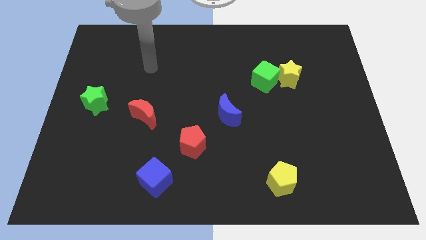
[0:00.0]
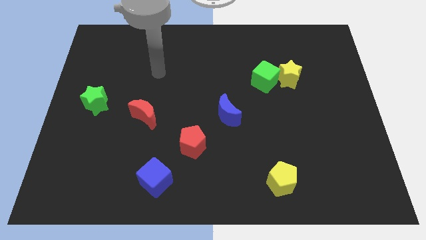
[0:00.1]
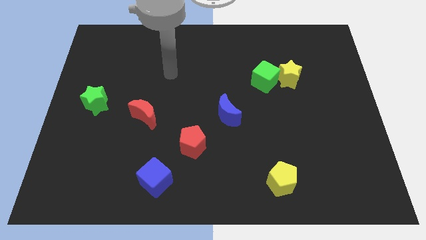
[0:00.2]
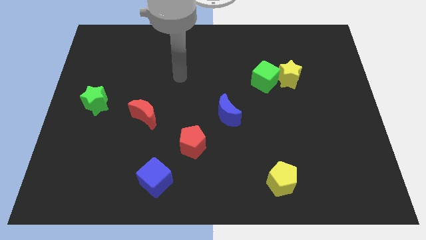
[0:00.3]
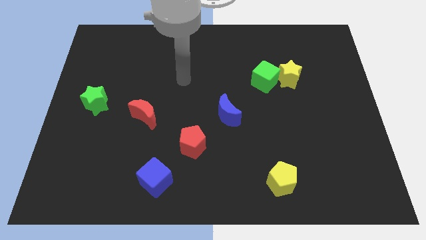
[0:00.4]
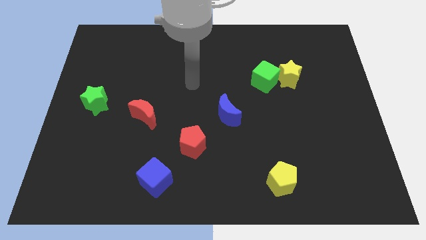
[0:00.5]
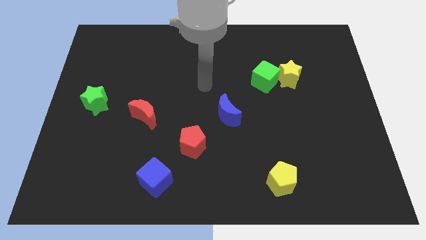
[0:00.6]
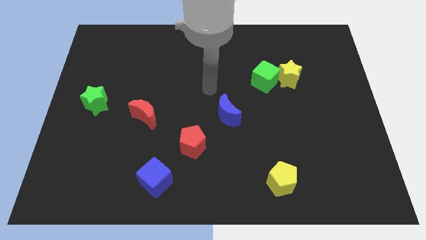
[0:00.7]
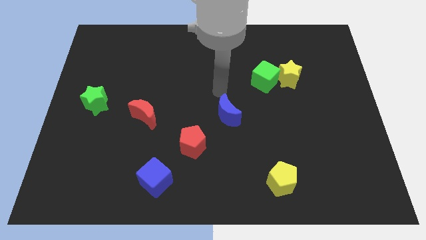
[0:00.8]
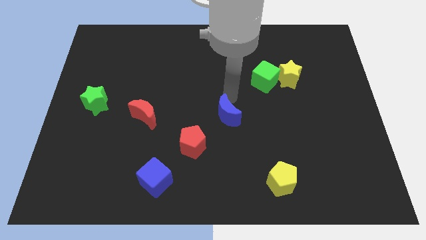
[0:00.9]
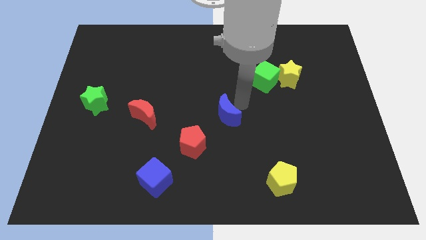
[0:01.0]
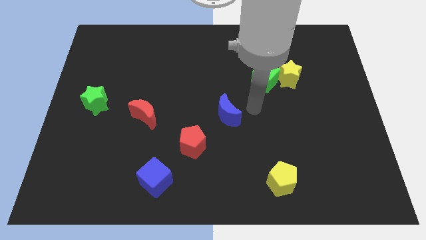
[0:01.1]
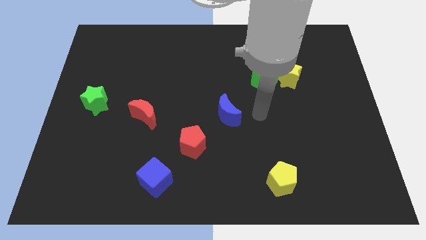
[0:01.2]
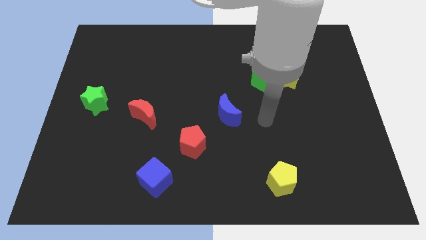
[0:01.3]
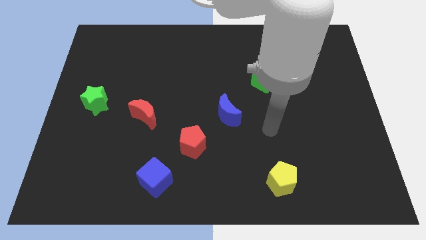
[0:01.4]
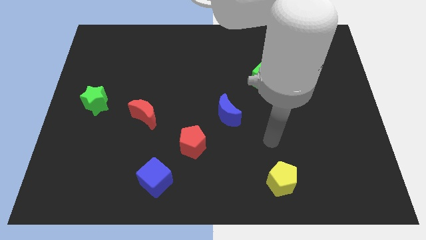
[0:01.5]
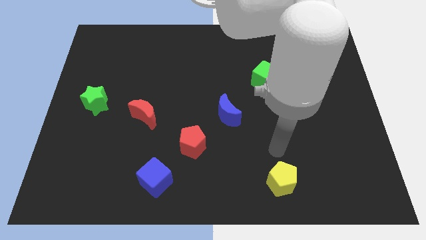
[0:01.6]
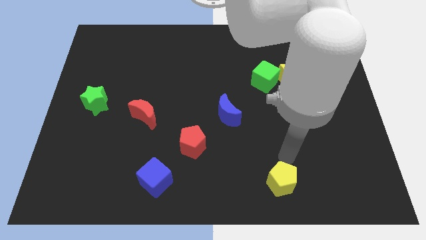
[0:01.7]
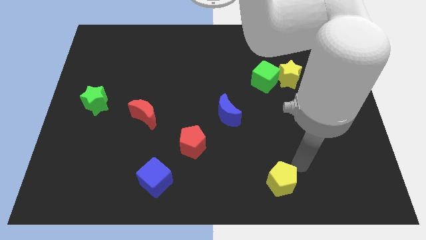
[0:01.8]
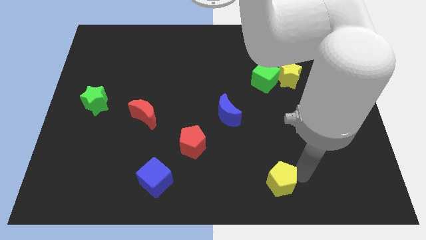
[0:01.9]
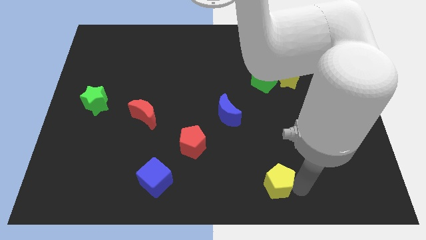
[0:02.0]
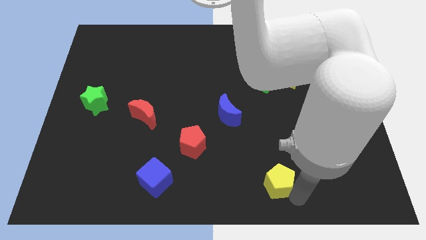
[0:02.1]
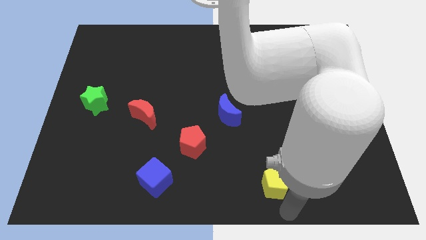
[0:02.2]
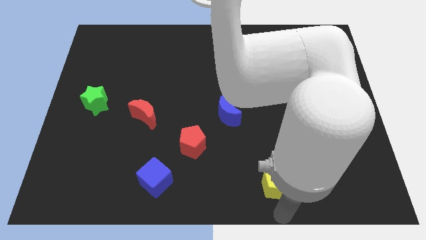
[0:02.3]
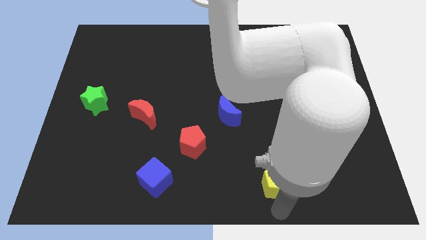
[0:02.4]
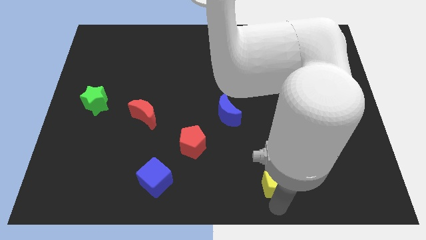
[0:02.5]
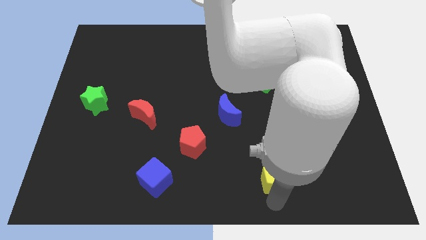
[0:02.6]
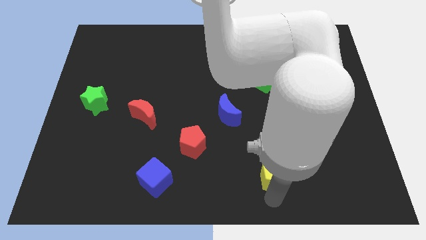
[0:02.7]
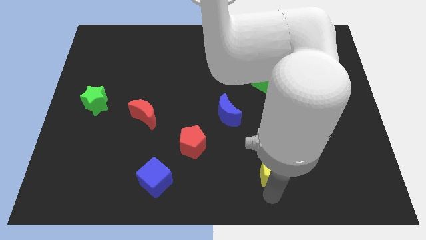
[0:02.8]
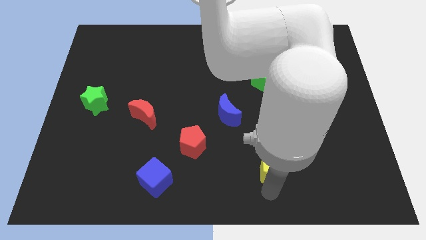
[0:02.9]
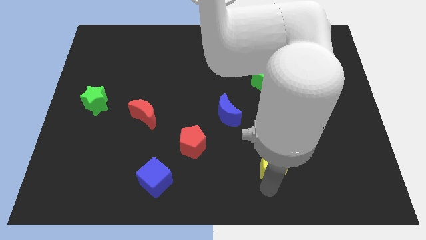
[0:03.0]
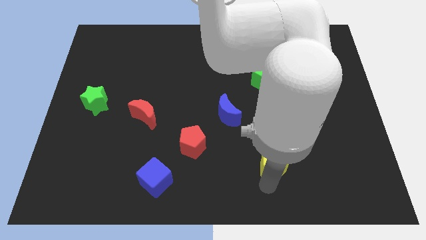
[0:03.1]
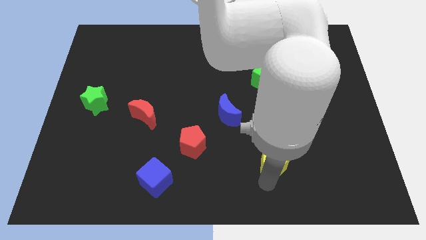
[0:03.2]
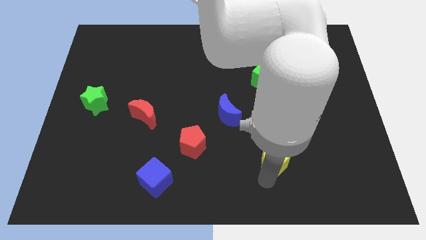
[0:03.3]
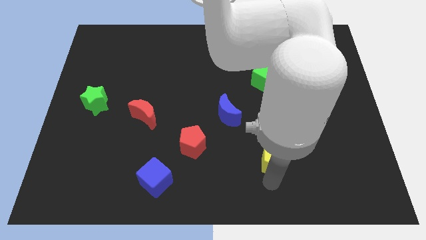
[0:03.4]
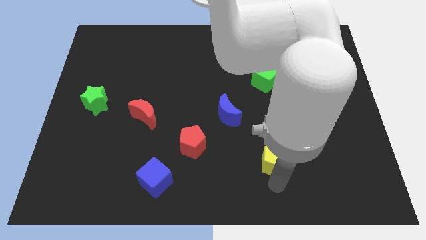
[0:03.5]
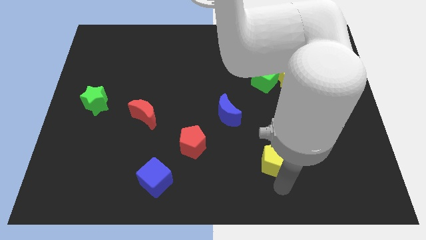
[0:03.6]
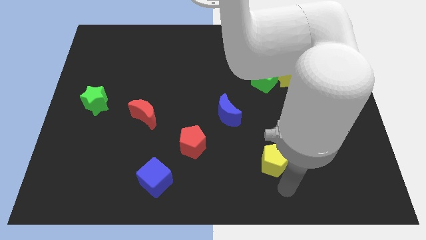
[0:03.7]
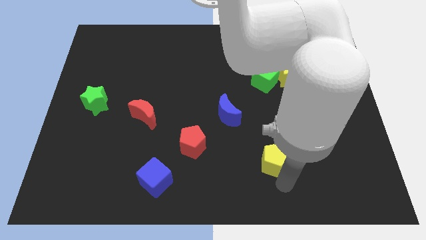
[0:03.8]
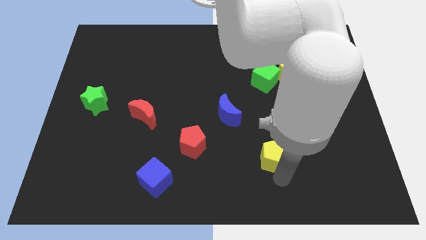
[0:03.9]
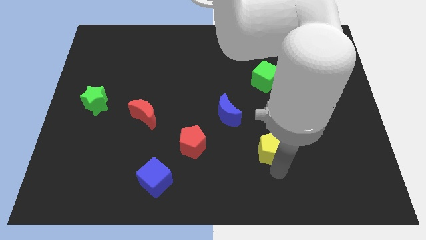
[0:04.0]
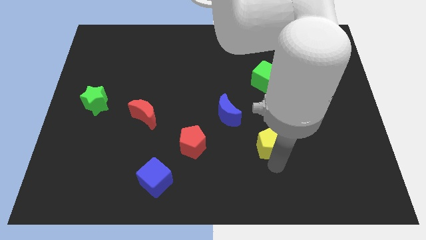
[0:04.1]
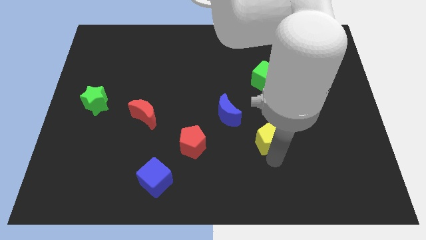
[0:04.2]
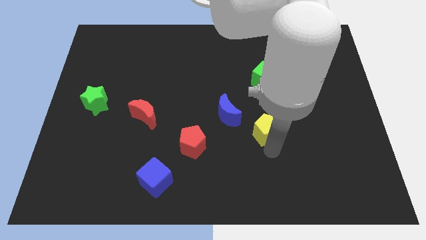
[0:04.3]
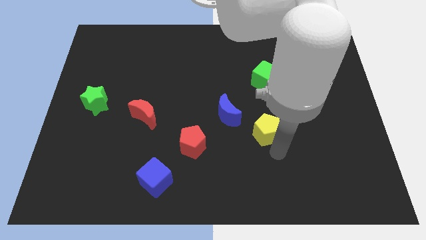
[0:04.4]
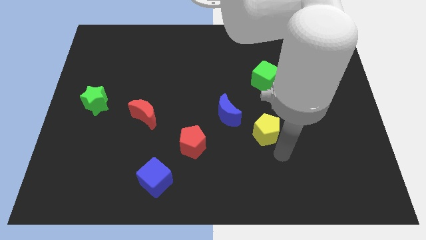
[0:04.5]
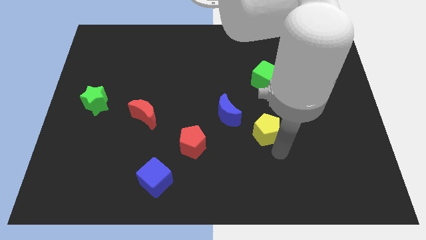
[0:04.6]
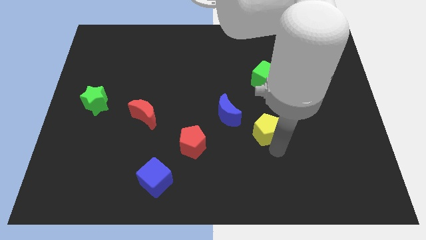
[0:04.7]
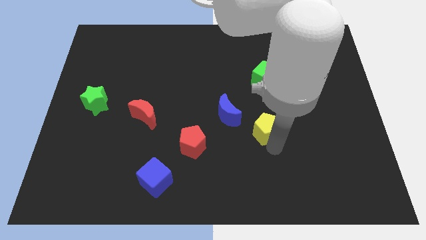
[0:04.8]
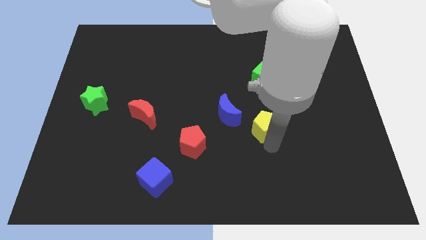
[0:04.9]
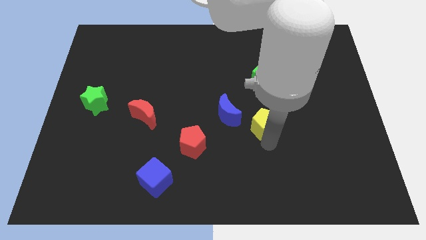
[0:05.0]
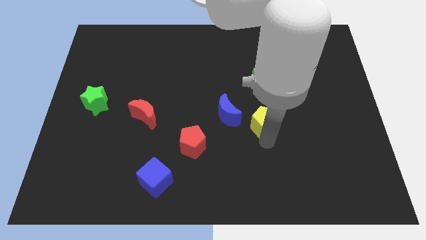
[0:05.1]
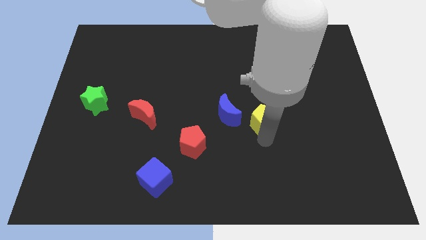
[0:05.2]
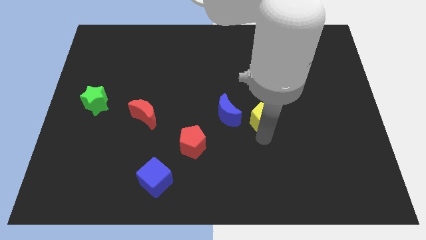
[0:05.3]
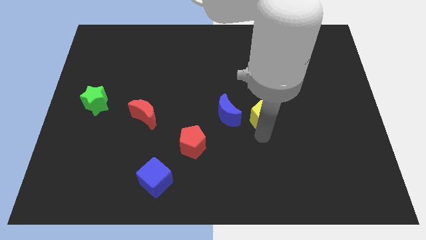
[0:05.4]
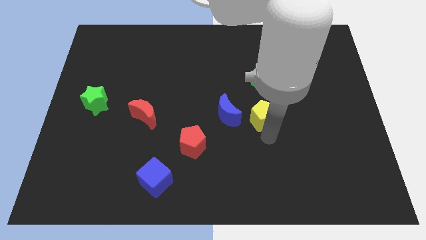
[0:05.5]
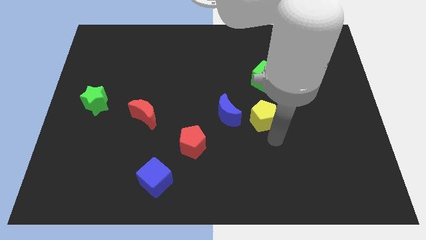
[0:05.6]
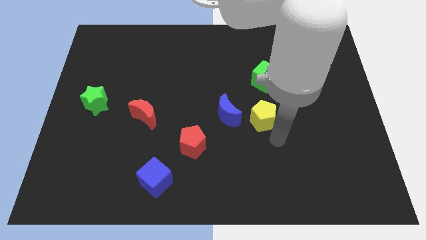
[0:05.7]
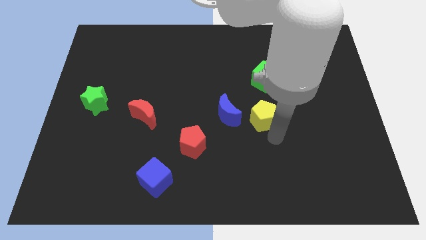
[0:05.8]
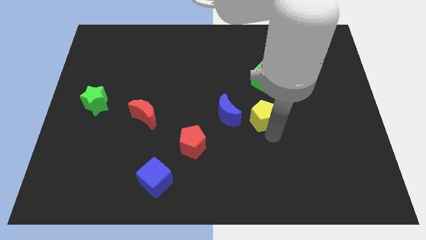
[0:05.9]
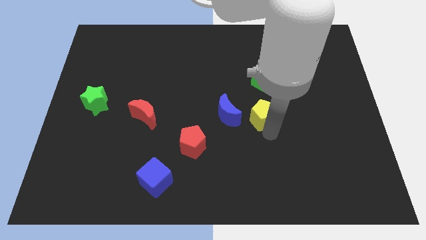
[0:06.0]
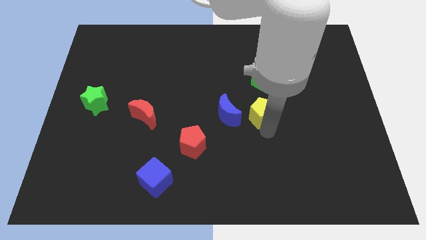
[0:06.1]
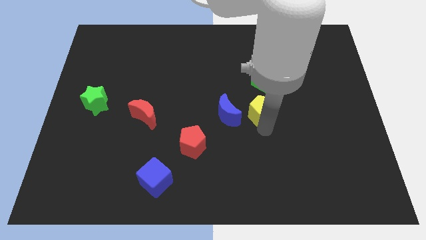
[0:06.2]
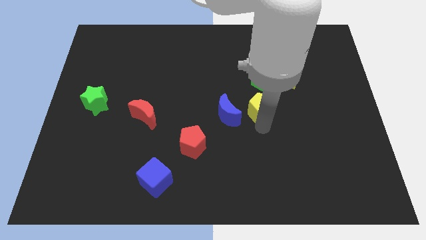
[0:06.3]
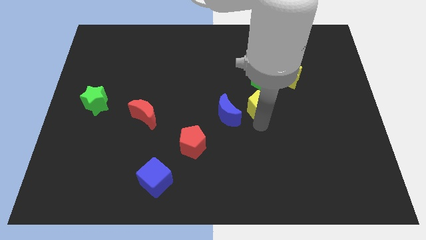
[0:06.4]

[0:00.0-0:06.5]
move the yellow pentagon diagonally down and to the left of the green cube

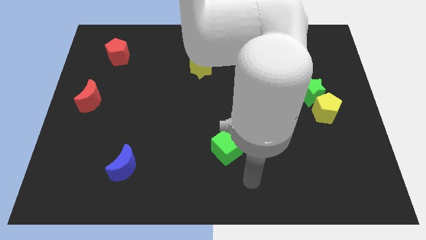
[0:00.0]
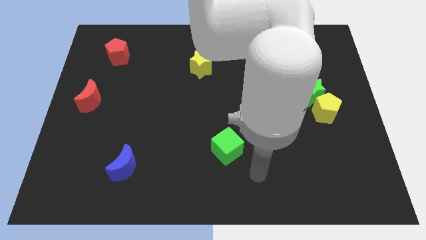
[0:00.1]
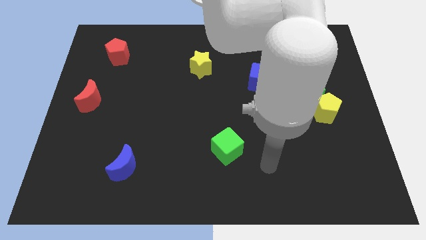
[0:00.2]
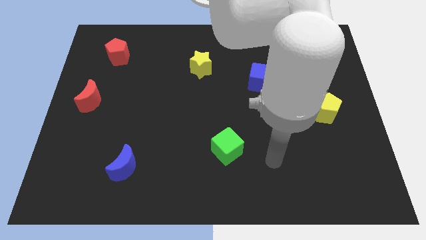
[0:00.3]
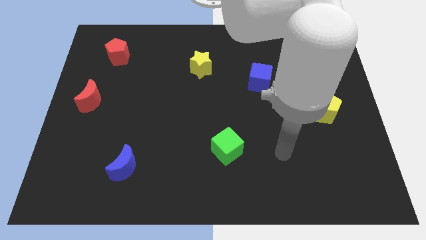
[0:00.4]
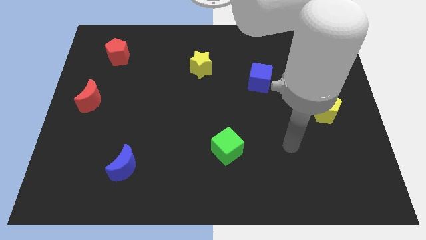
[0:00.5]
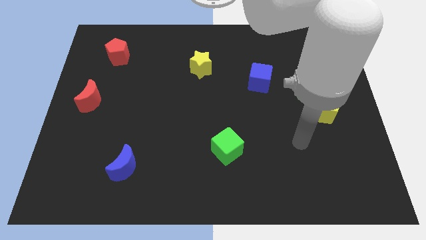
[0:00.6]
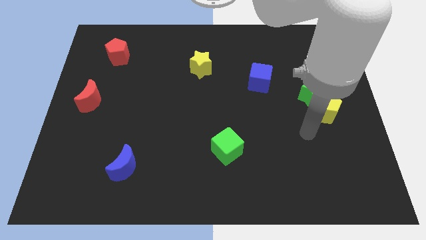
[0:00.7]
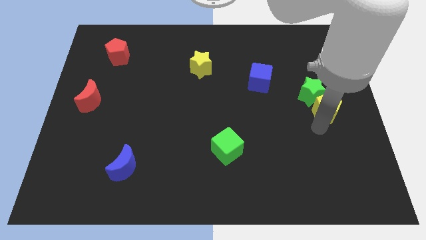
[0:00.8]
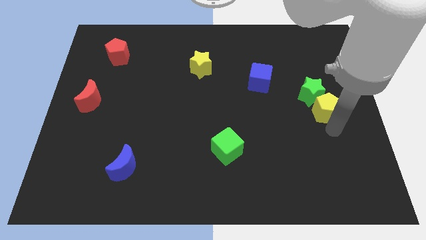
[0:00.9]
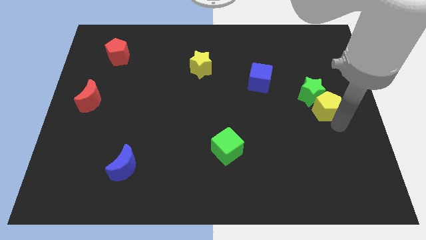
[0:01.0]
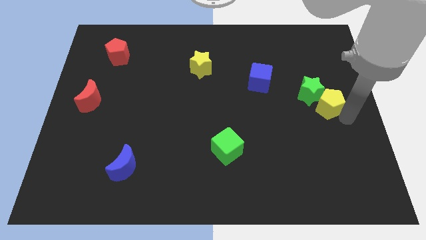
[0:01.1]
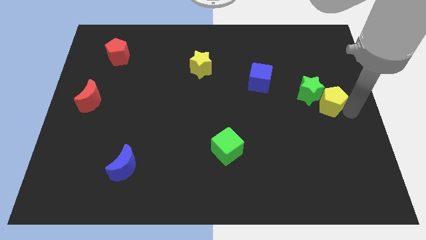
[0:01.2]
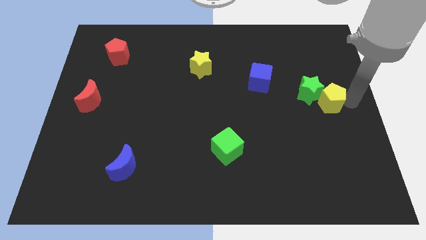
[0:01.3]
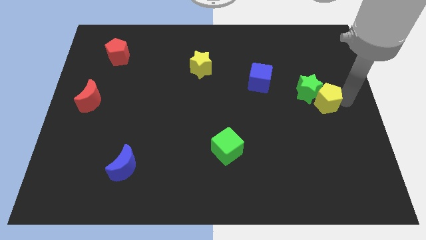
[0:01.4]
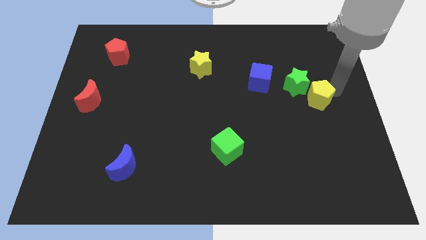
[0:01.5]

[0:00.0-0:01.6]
push the green star to the bottom right side of the blue cube
